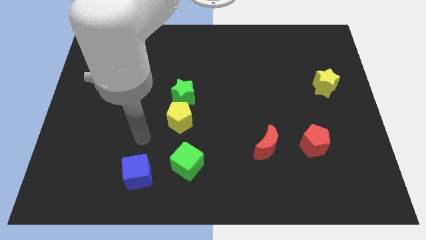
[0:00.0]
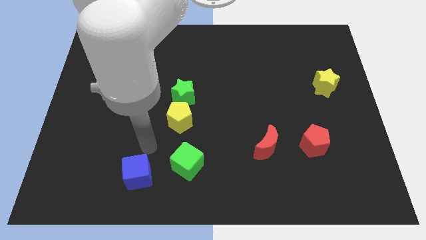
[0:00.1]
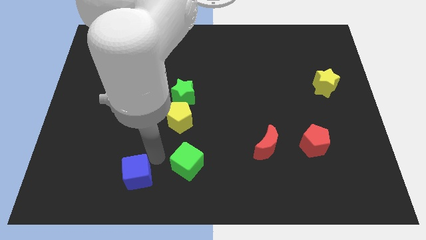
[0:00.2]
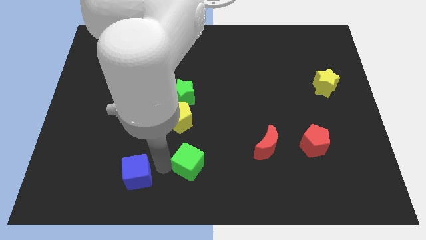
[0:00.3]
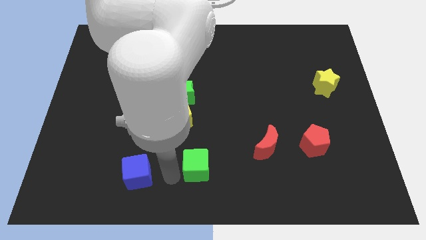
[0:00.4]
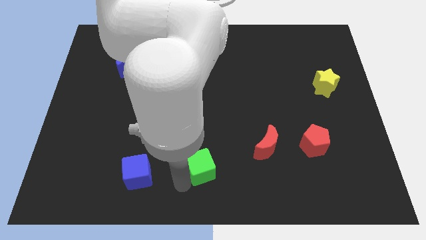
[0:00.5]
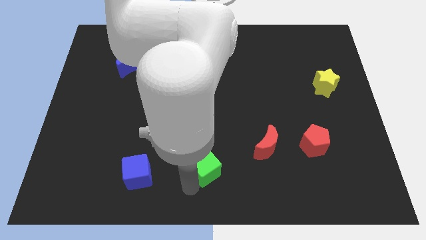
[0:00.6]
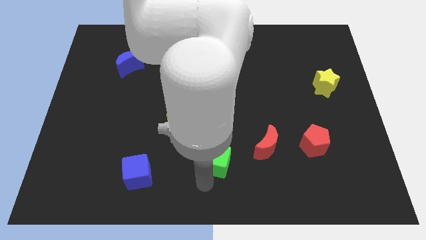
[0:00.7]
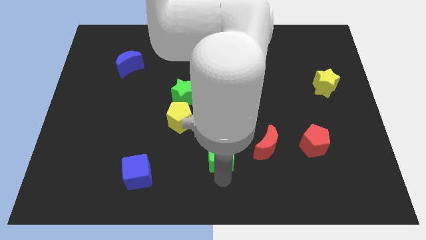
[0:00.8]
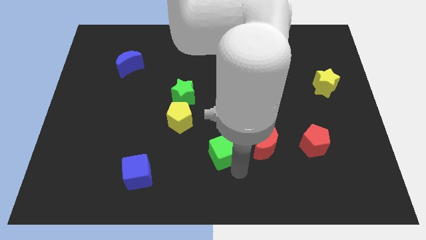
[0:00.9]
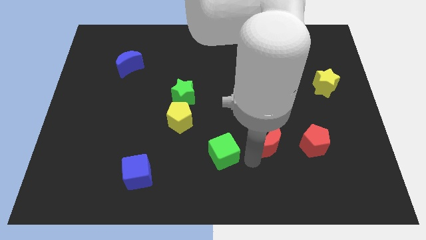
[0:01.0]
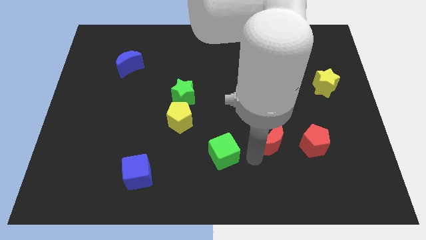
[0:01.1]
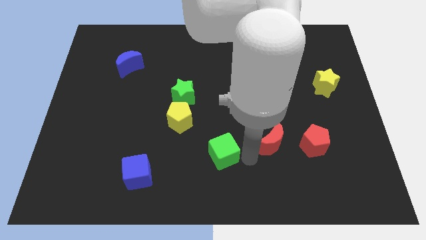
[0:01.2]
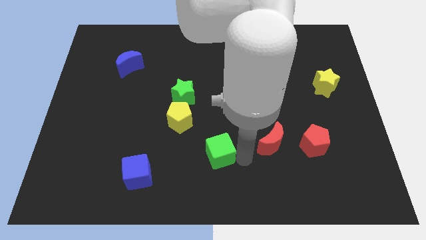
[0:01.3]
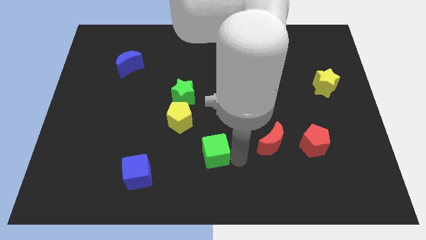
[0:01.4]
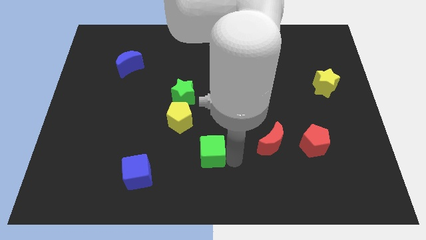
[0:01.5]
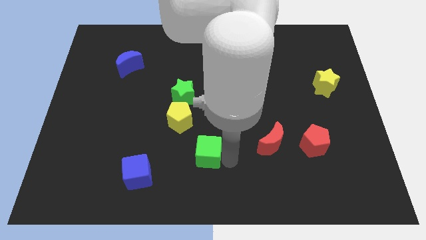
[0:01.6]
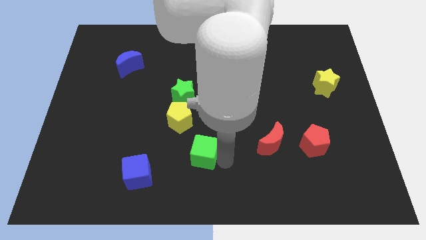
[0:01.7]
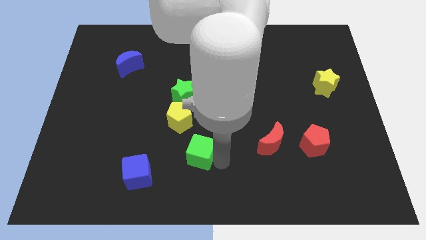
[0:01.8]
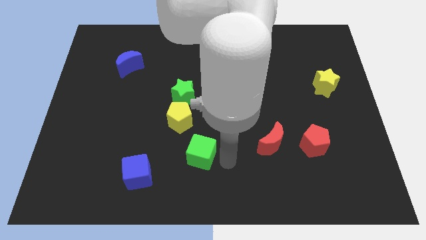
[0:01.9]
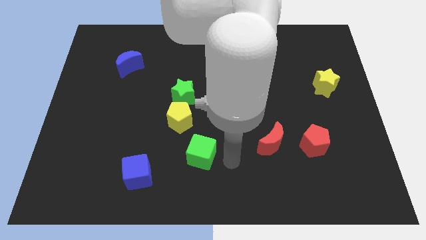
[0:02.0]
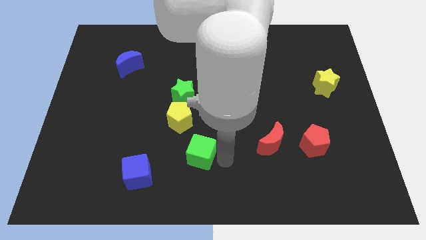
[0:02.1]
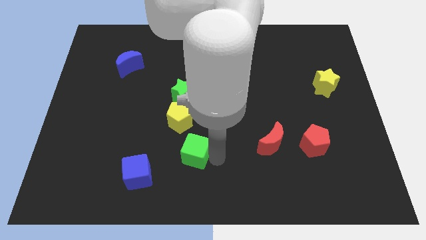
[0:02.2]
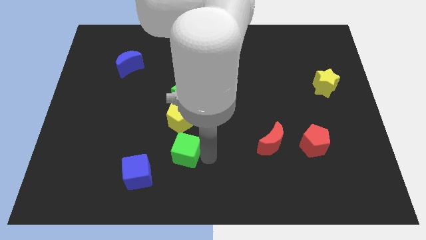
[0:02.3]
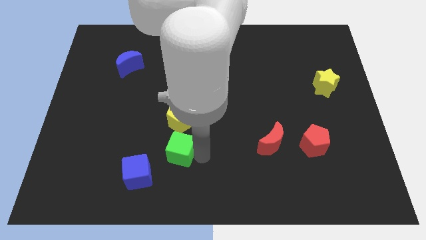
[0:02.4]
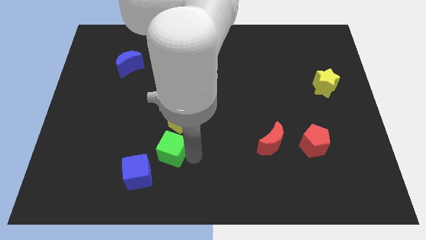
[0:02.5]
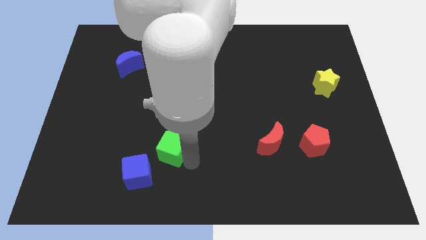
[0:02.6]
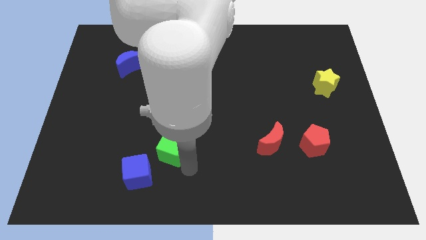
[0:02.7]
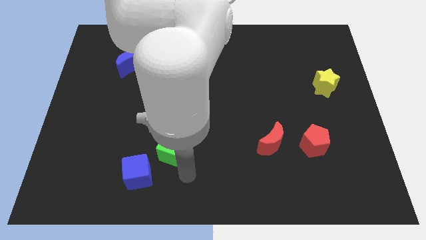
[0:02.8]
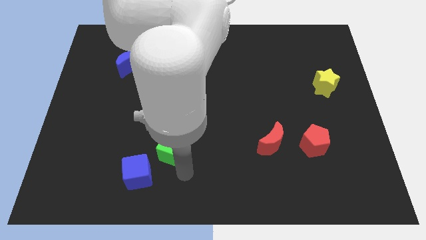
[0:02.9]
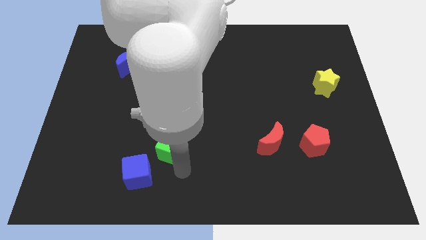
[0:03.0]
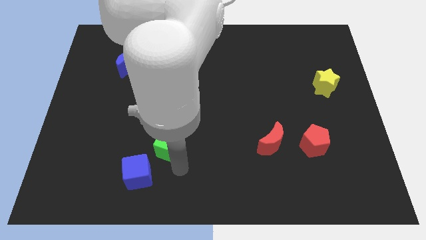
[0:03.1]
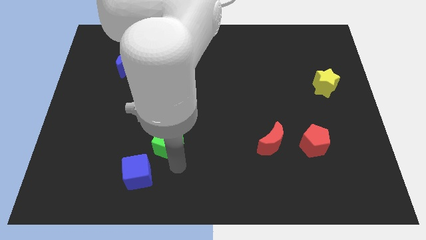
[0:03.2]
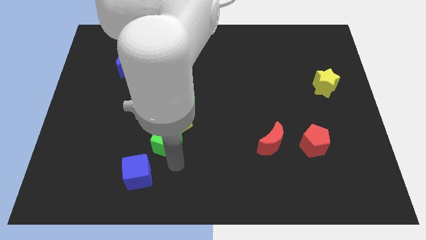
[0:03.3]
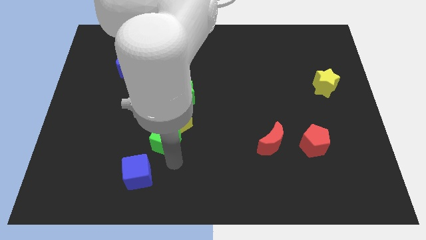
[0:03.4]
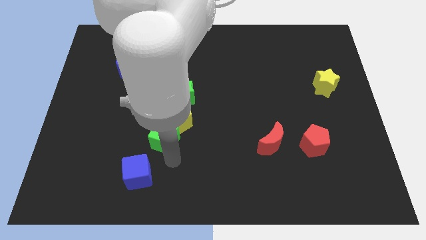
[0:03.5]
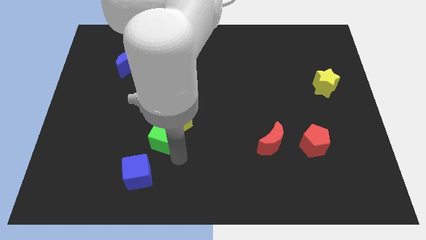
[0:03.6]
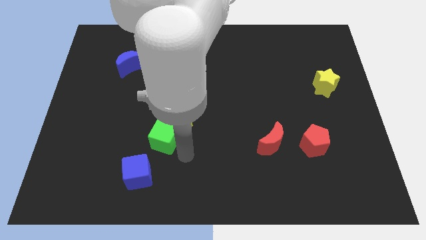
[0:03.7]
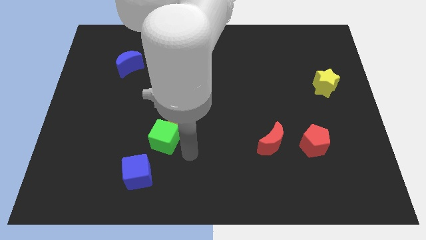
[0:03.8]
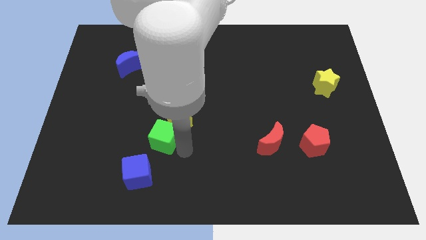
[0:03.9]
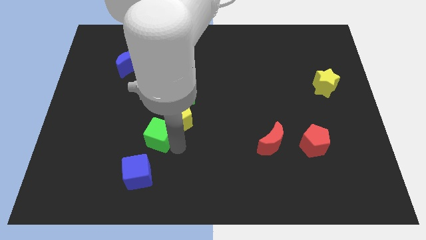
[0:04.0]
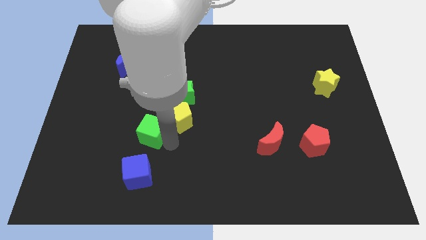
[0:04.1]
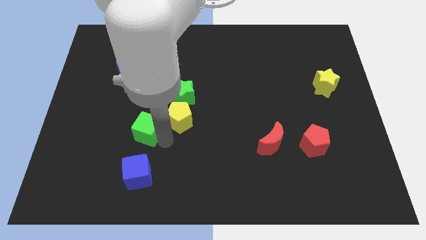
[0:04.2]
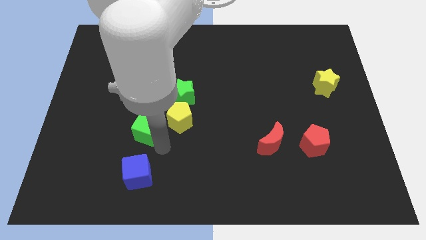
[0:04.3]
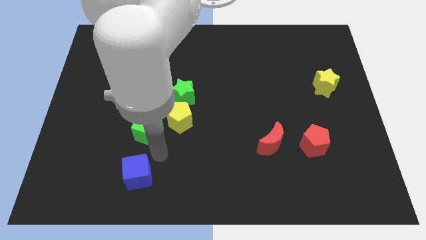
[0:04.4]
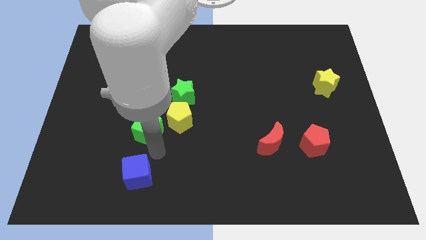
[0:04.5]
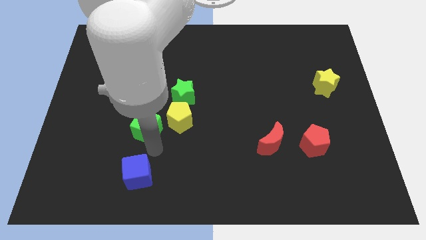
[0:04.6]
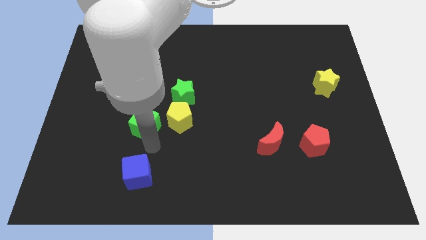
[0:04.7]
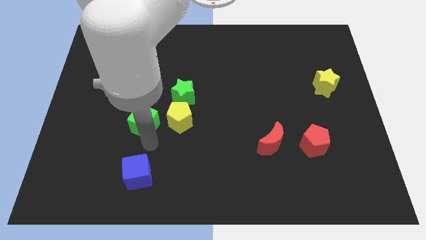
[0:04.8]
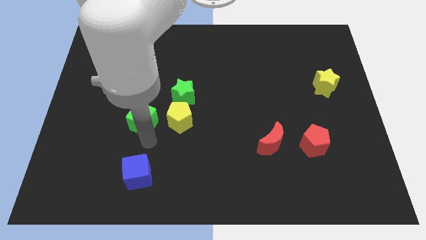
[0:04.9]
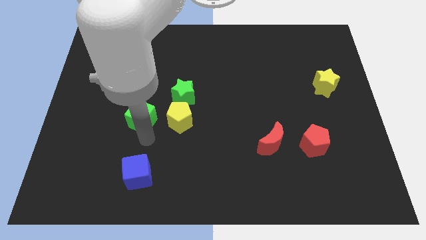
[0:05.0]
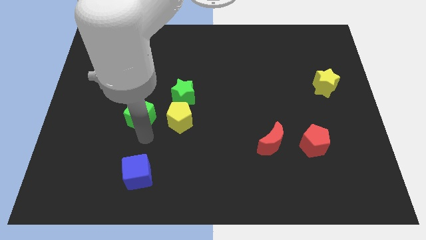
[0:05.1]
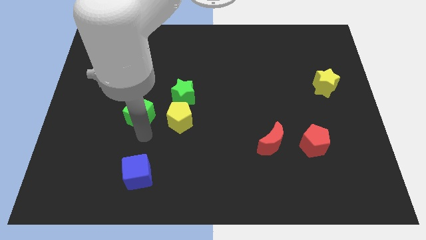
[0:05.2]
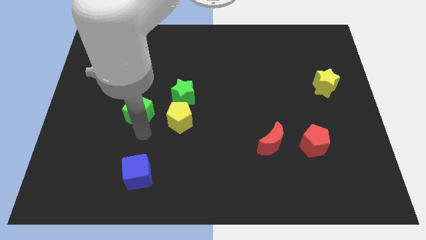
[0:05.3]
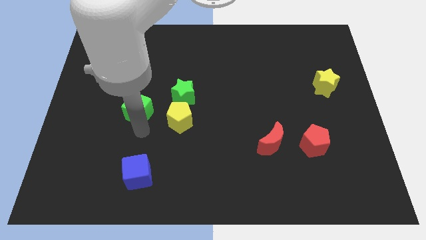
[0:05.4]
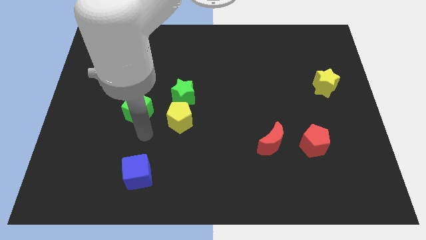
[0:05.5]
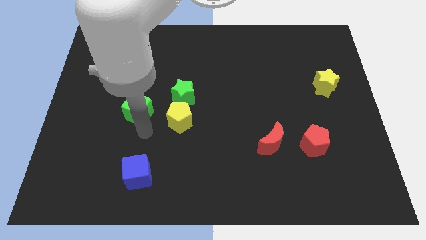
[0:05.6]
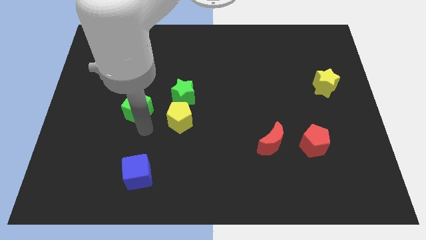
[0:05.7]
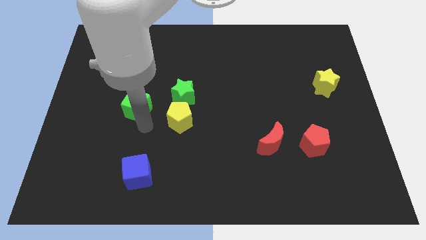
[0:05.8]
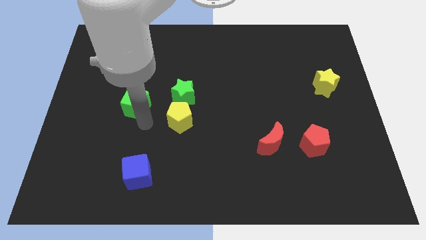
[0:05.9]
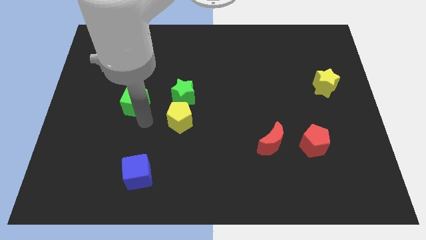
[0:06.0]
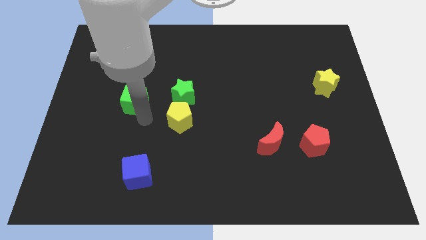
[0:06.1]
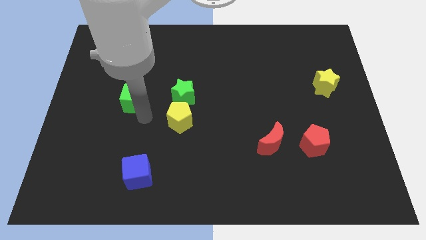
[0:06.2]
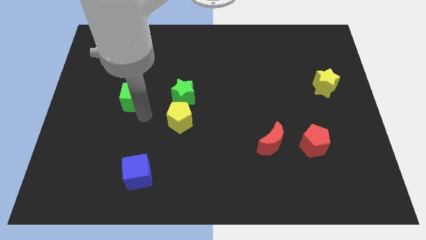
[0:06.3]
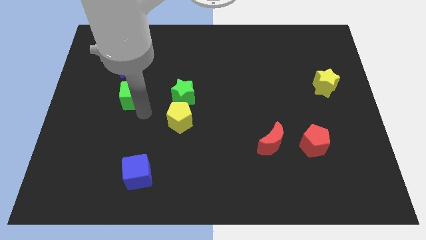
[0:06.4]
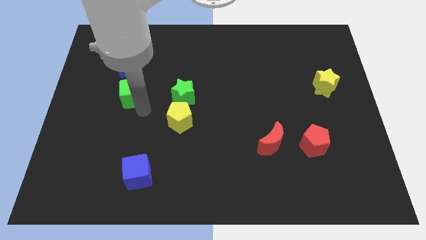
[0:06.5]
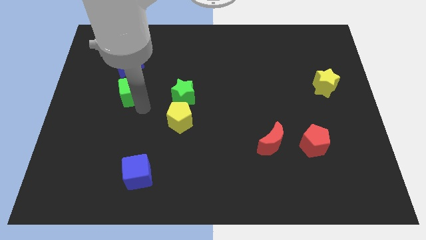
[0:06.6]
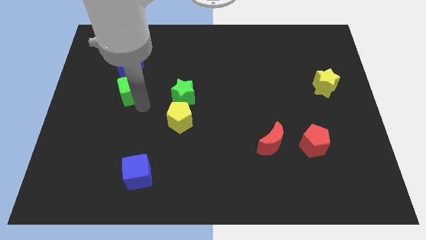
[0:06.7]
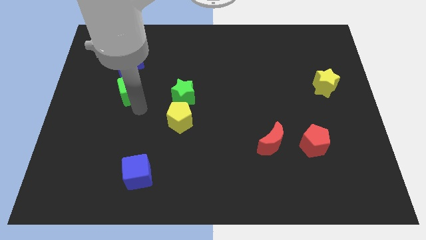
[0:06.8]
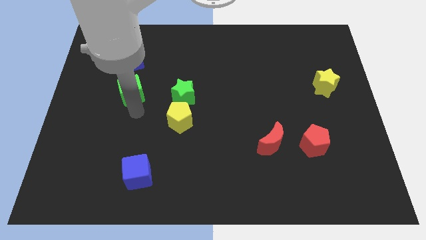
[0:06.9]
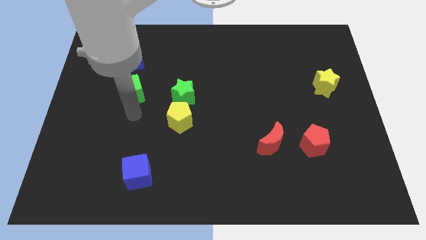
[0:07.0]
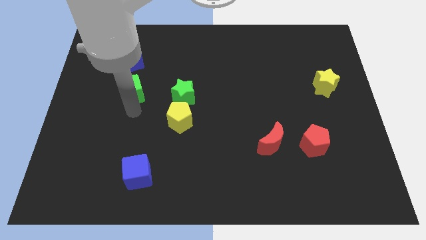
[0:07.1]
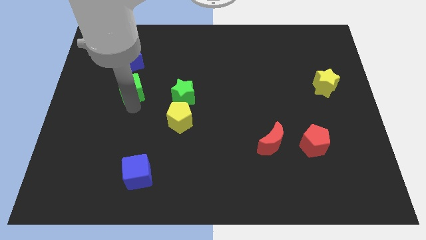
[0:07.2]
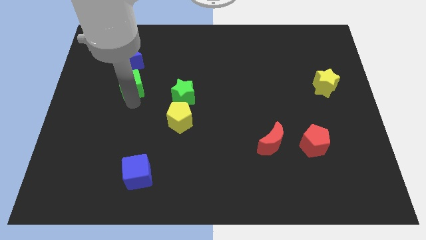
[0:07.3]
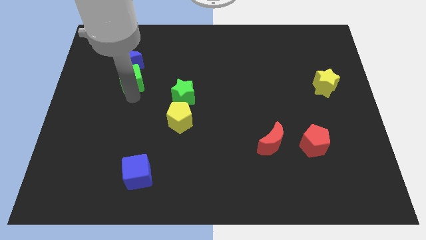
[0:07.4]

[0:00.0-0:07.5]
slide the green cube towards the blue moon
